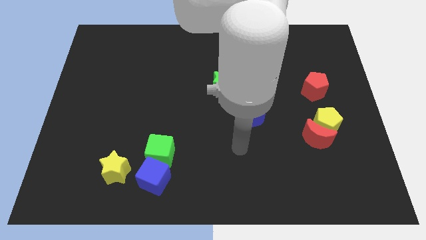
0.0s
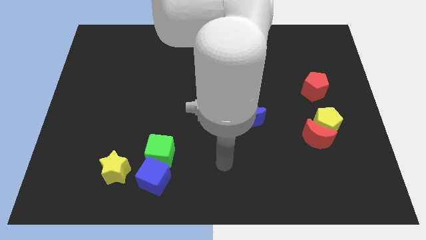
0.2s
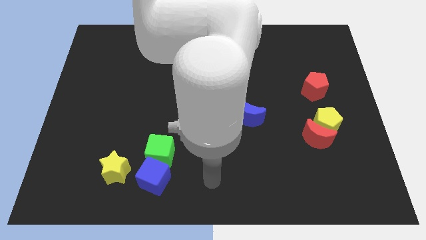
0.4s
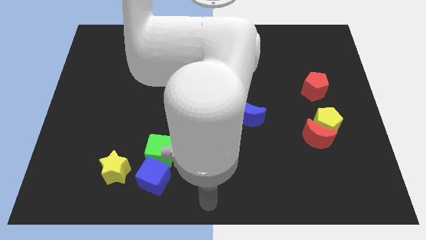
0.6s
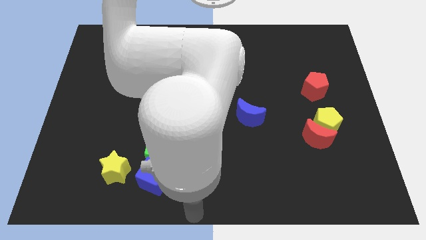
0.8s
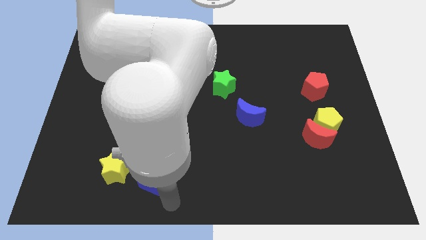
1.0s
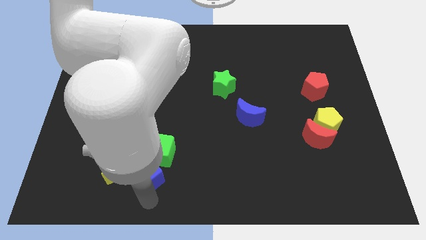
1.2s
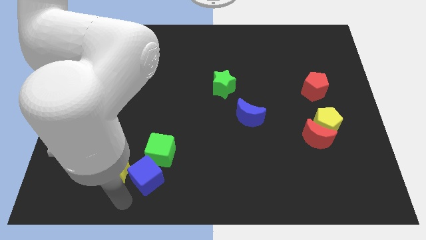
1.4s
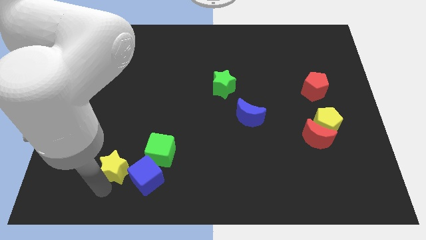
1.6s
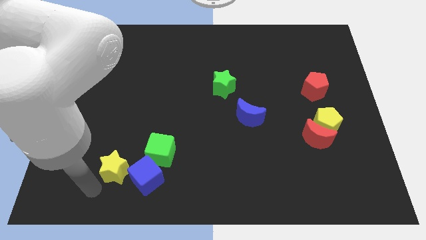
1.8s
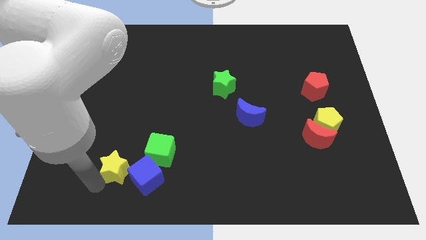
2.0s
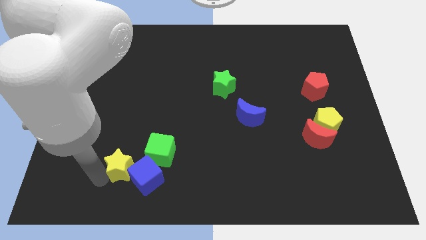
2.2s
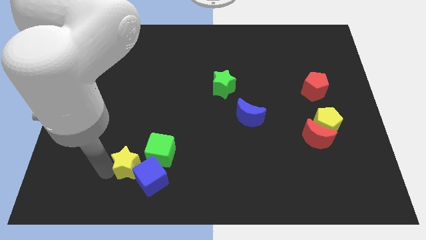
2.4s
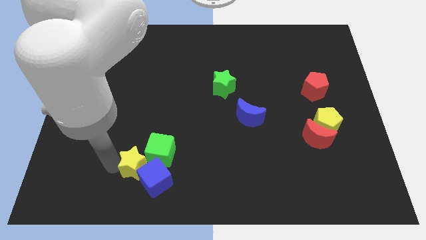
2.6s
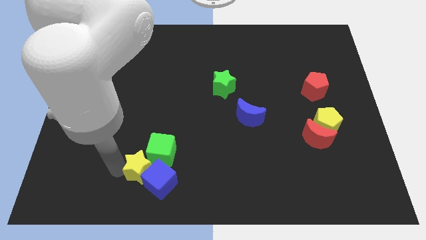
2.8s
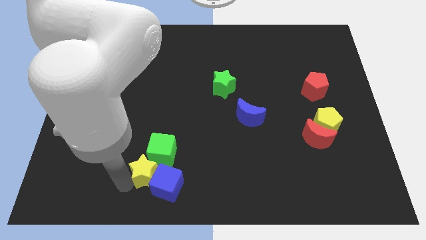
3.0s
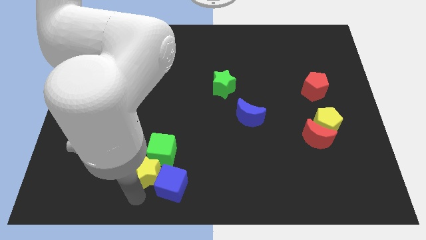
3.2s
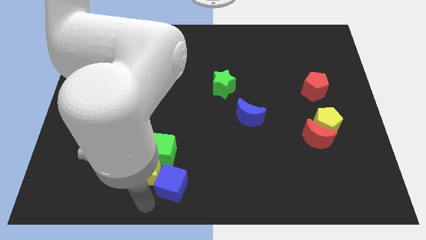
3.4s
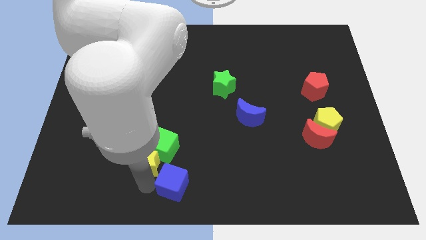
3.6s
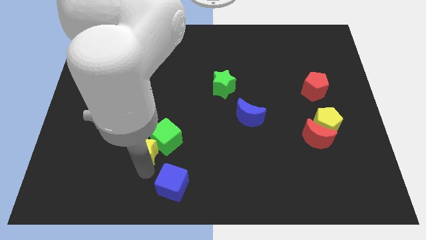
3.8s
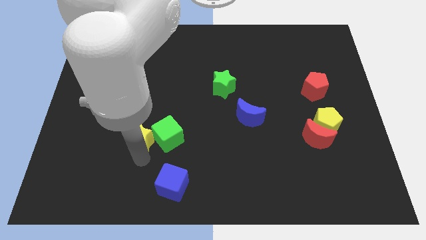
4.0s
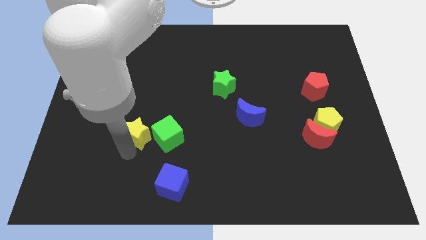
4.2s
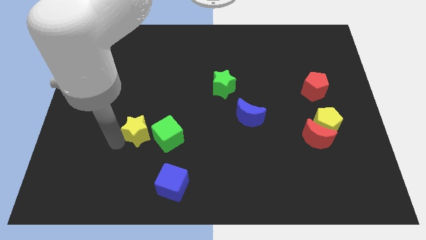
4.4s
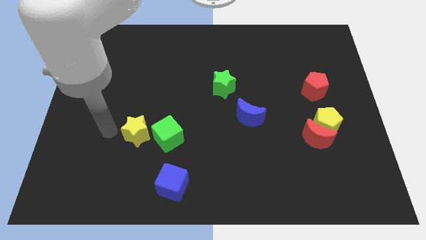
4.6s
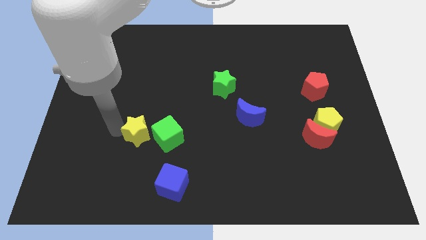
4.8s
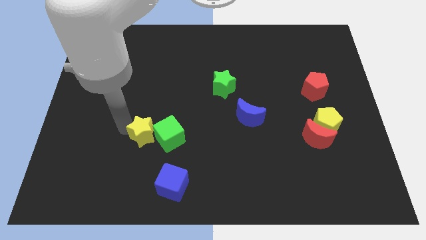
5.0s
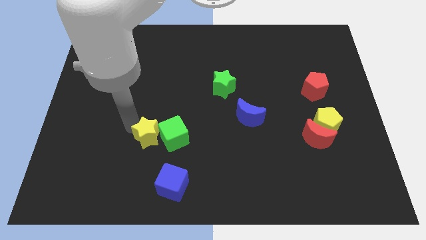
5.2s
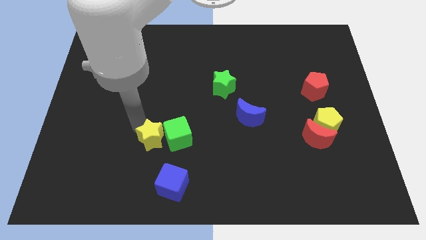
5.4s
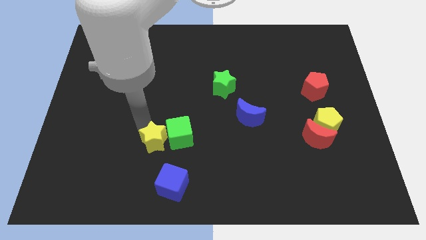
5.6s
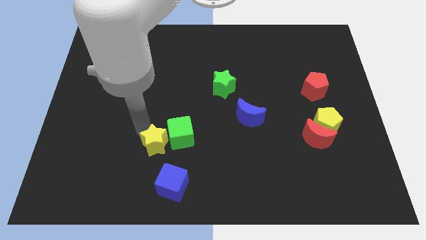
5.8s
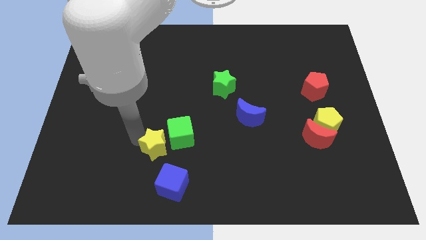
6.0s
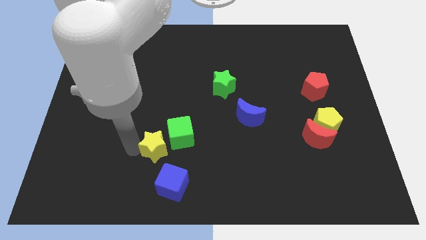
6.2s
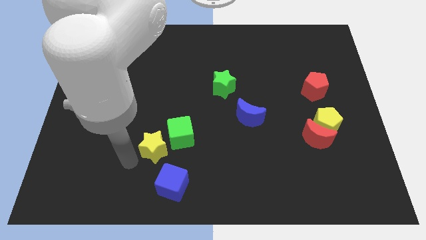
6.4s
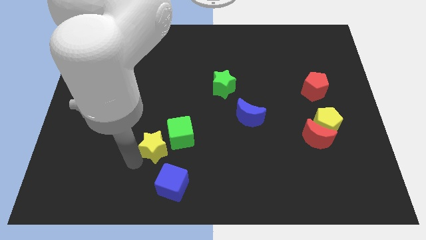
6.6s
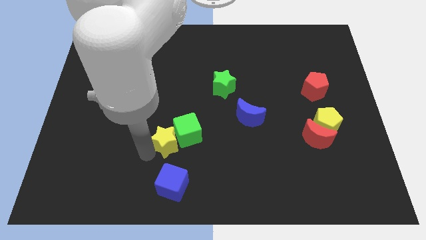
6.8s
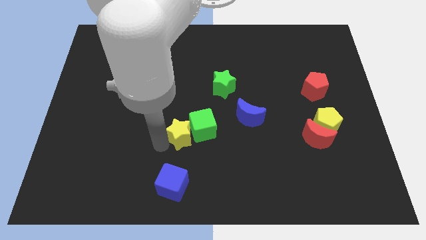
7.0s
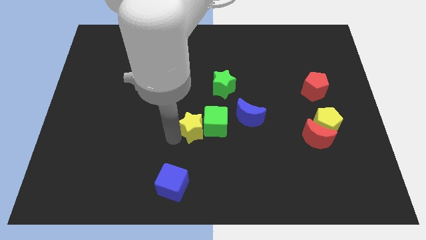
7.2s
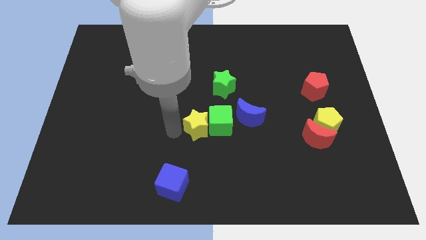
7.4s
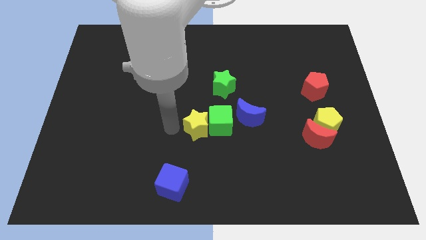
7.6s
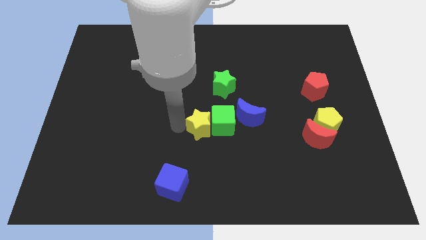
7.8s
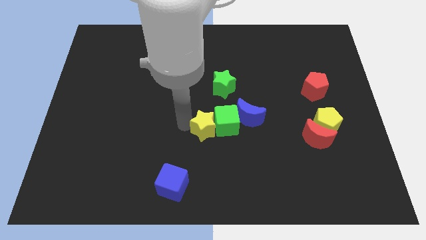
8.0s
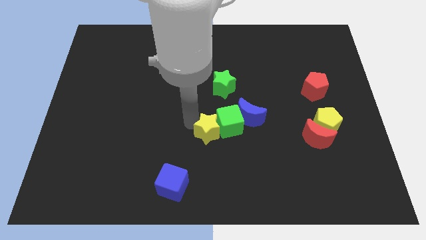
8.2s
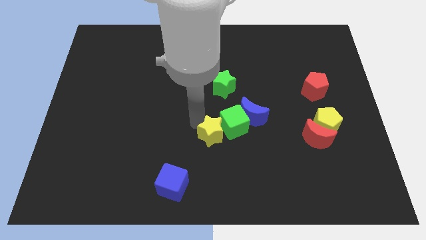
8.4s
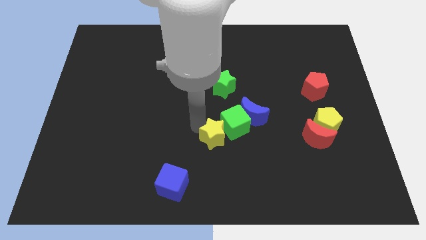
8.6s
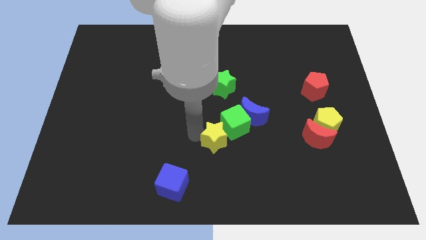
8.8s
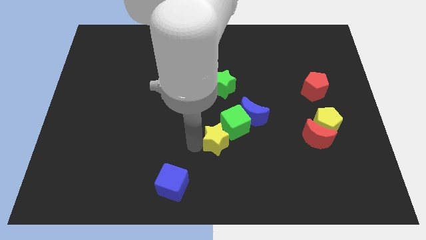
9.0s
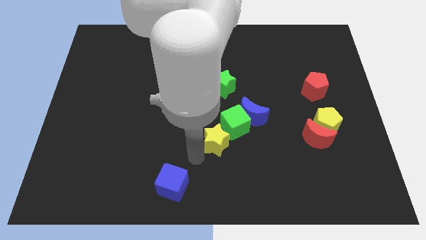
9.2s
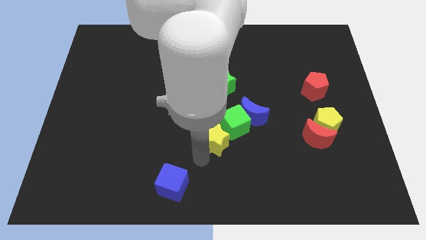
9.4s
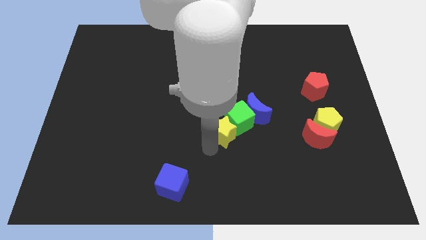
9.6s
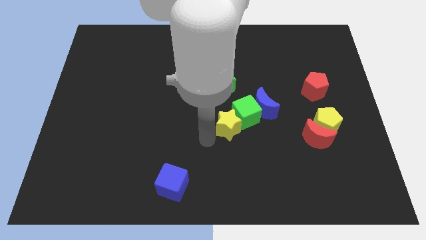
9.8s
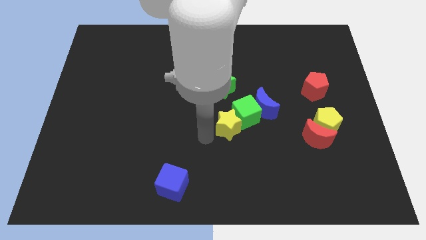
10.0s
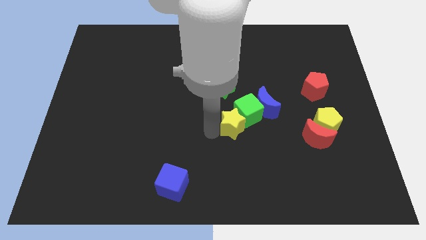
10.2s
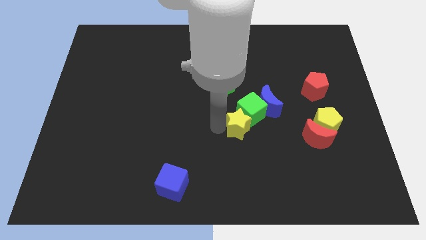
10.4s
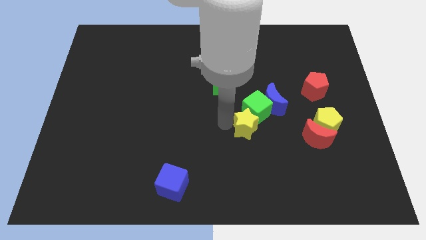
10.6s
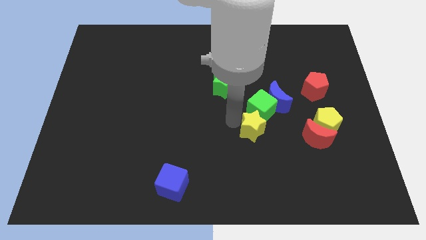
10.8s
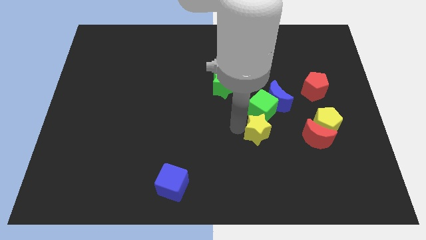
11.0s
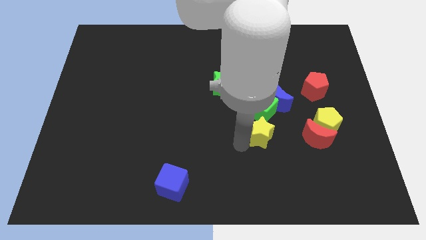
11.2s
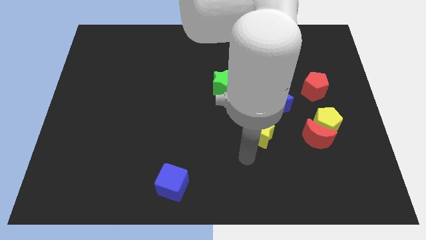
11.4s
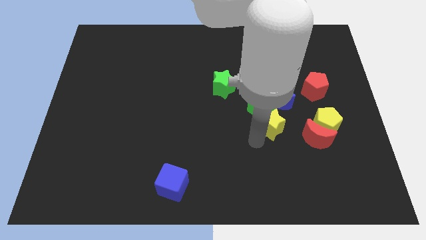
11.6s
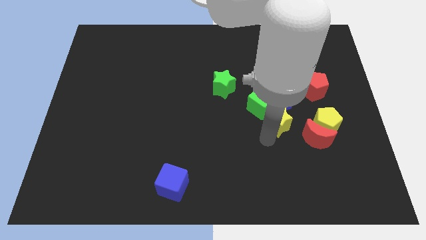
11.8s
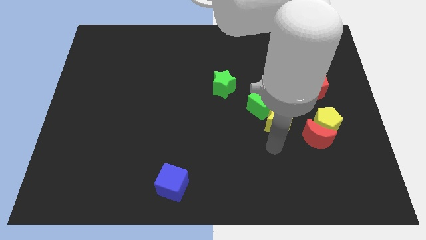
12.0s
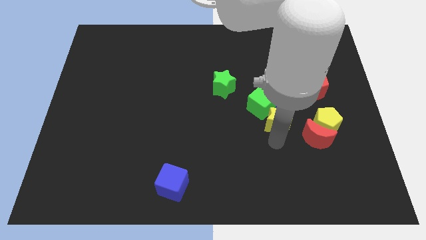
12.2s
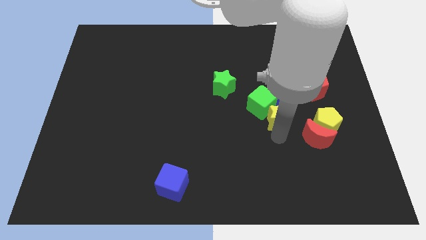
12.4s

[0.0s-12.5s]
move the yellow star towards the blue moon

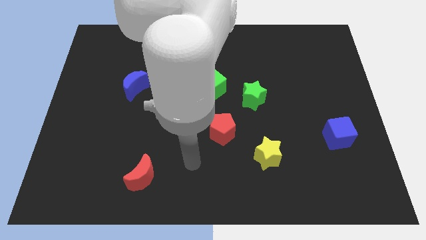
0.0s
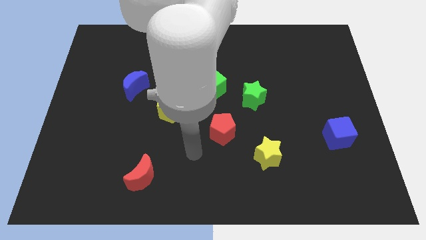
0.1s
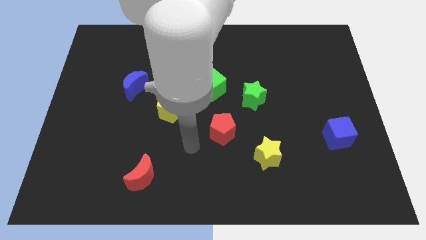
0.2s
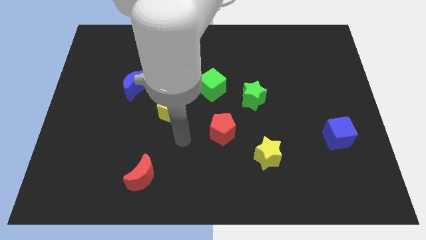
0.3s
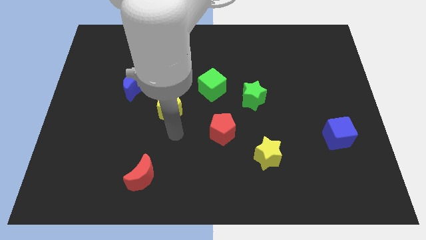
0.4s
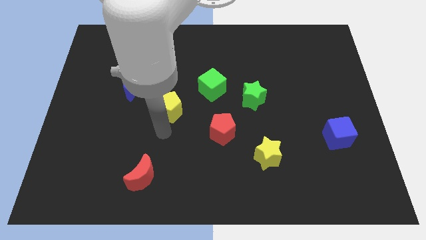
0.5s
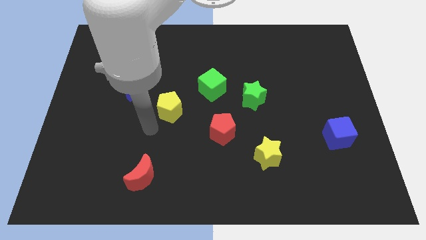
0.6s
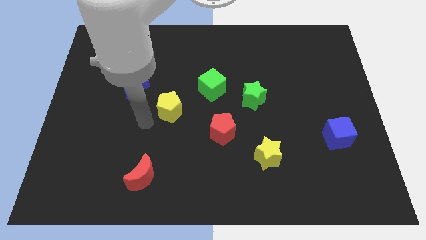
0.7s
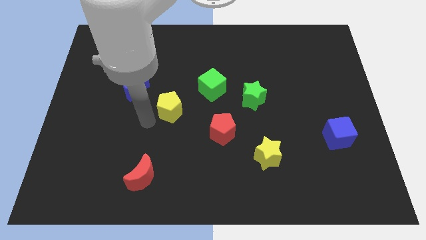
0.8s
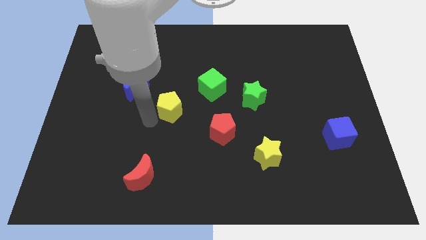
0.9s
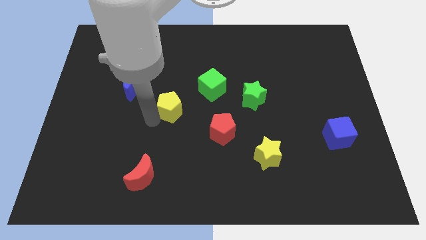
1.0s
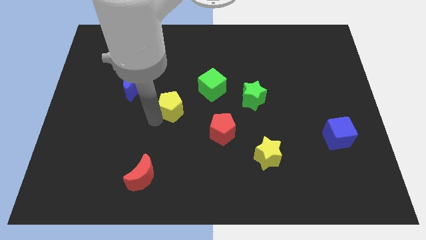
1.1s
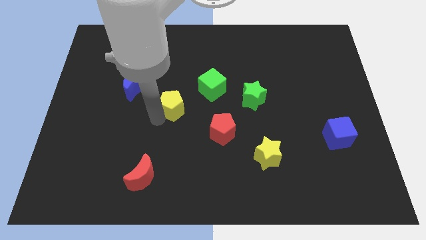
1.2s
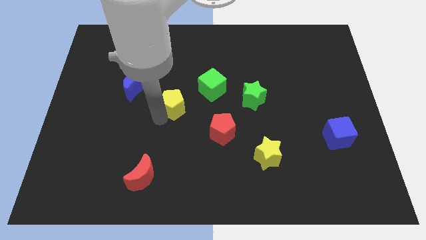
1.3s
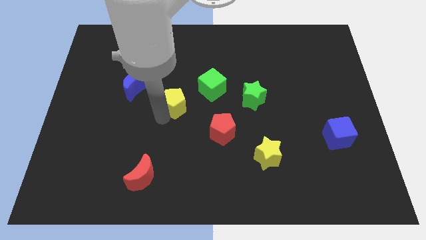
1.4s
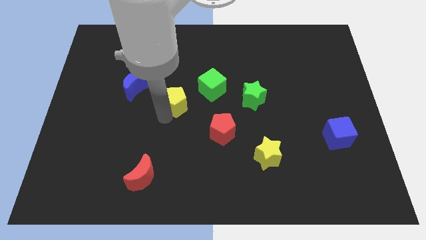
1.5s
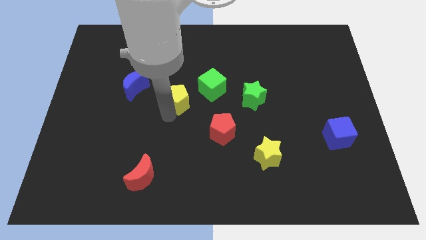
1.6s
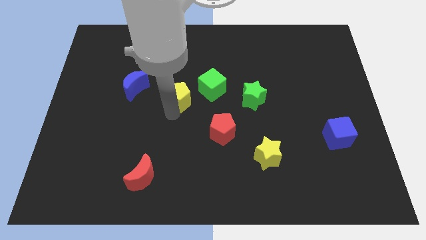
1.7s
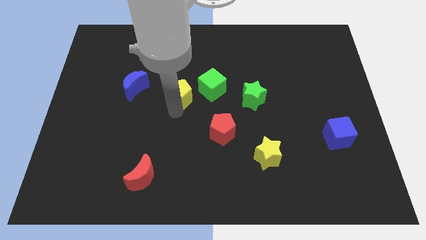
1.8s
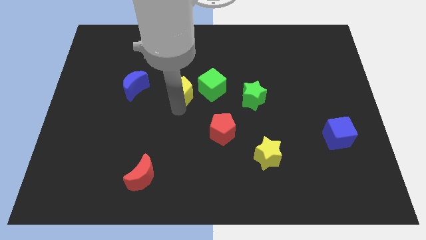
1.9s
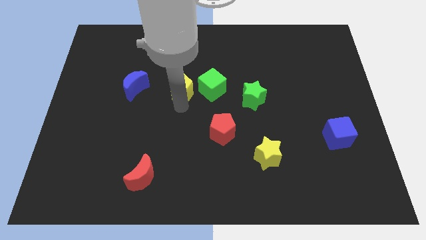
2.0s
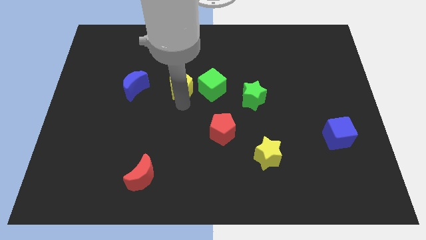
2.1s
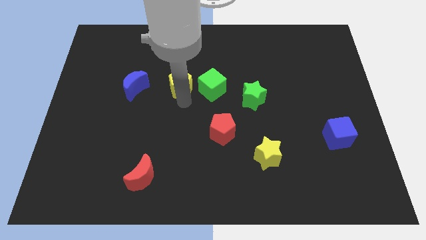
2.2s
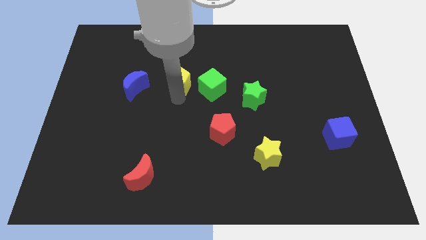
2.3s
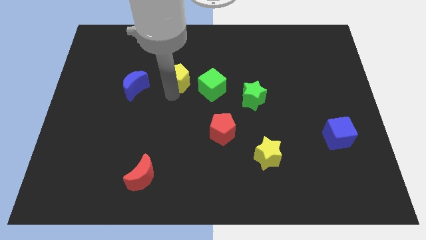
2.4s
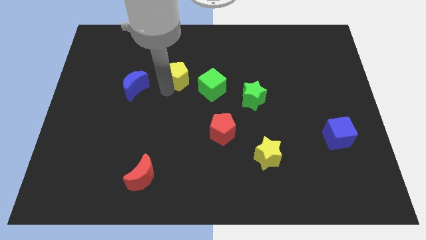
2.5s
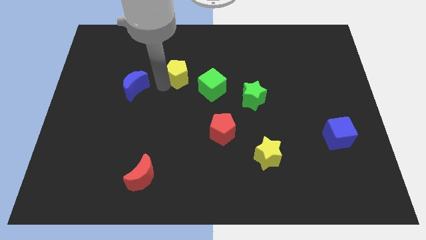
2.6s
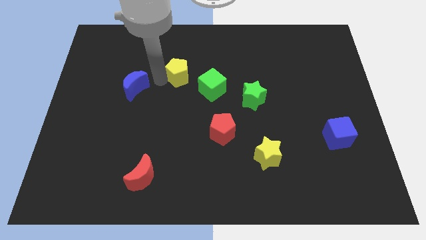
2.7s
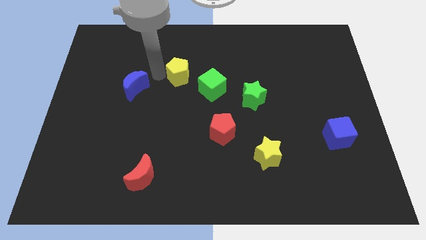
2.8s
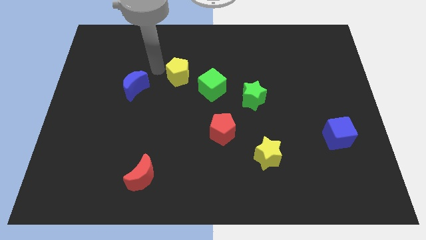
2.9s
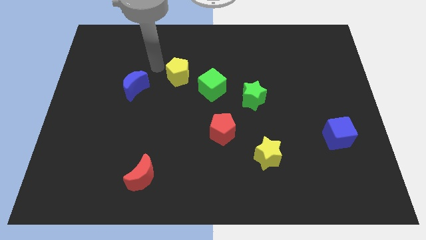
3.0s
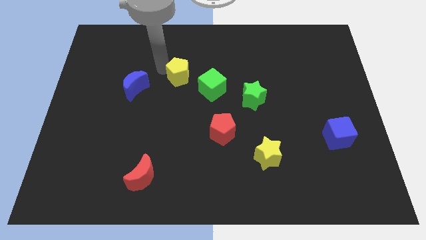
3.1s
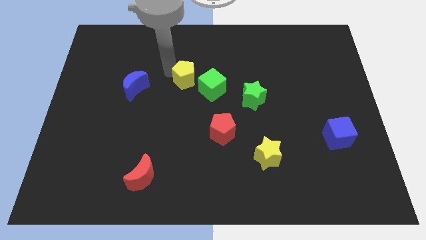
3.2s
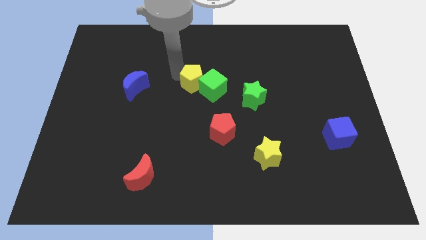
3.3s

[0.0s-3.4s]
move the yellow pentagon towards the green cube
